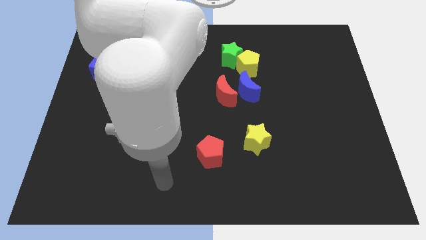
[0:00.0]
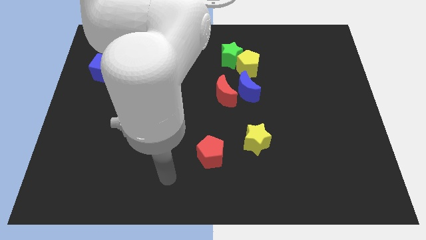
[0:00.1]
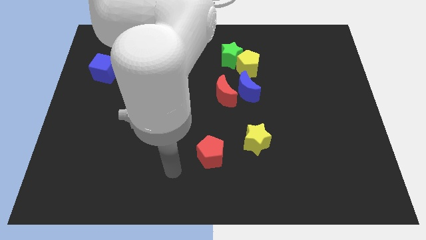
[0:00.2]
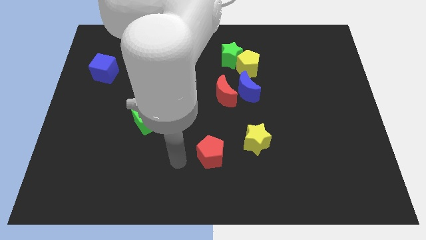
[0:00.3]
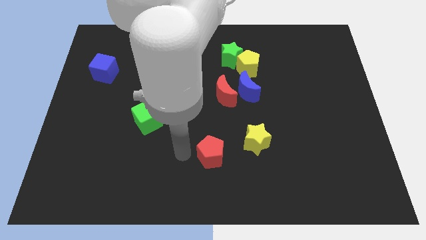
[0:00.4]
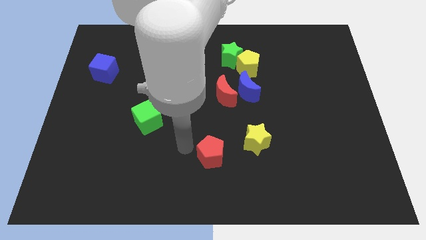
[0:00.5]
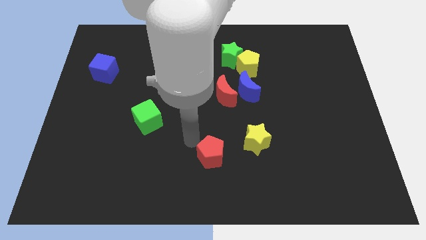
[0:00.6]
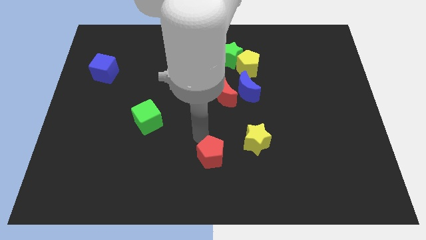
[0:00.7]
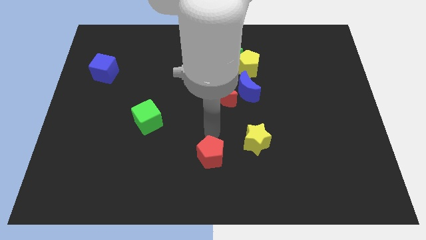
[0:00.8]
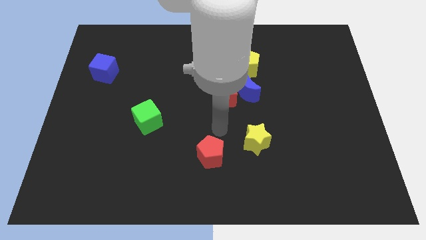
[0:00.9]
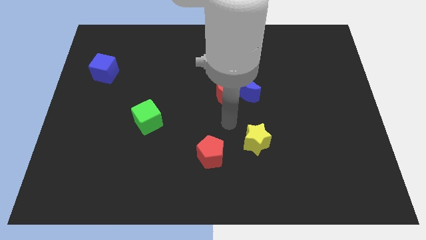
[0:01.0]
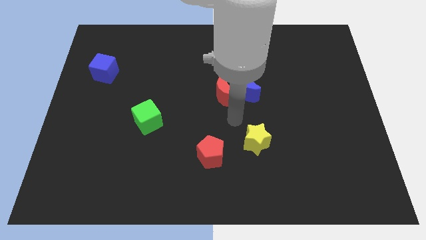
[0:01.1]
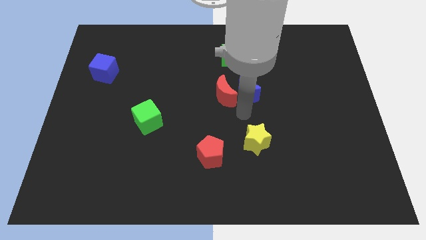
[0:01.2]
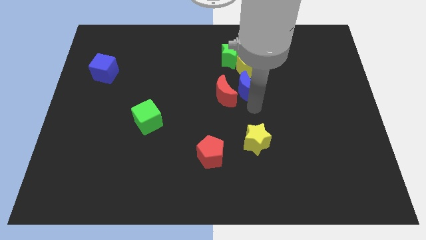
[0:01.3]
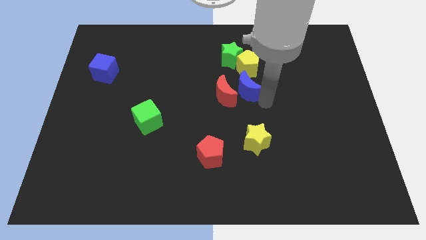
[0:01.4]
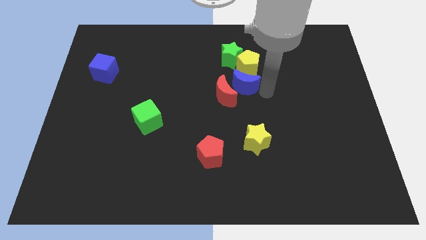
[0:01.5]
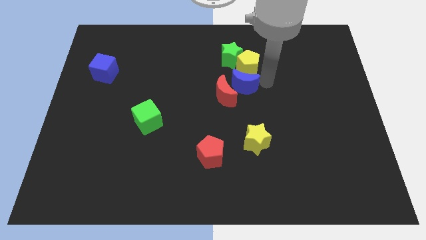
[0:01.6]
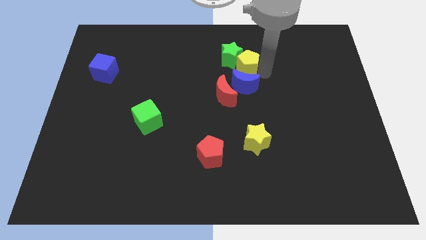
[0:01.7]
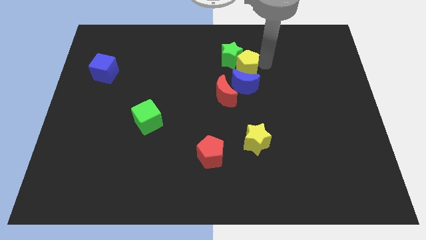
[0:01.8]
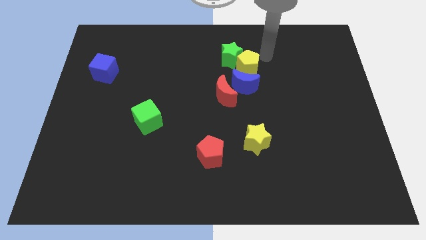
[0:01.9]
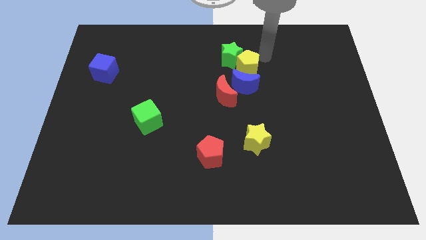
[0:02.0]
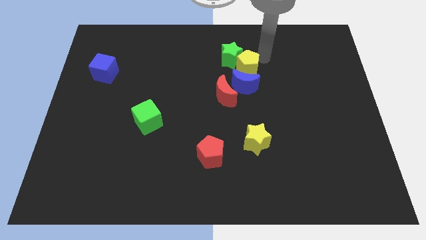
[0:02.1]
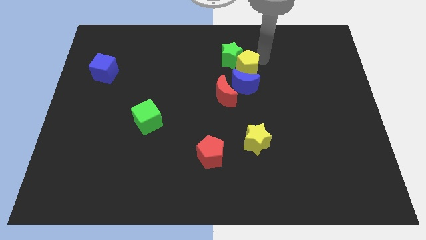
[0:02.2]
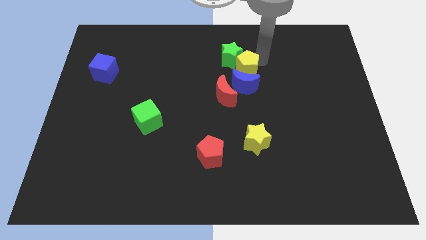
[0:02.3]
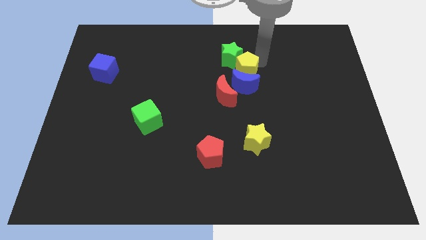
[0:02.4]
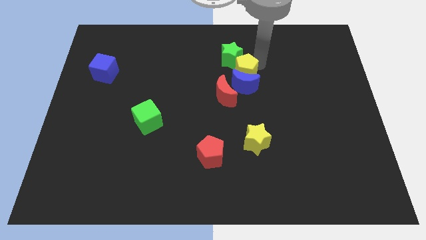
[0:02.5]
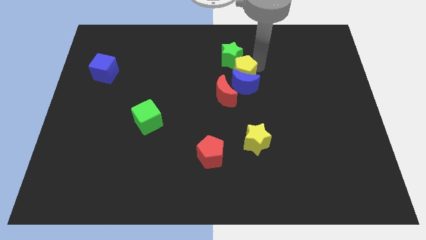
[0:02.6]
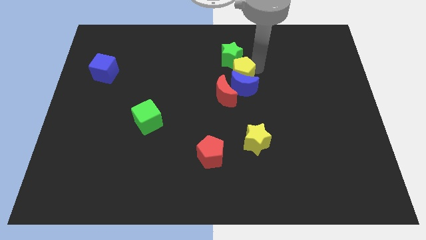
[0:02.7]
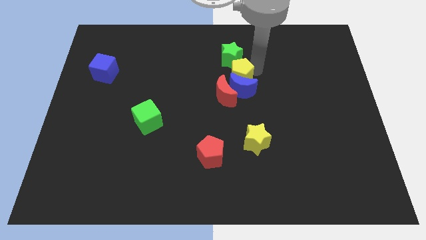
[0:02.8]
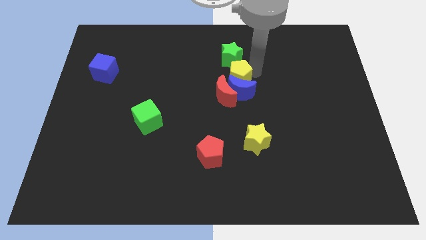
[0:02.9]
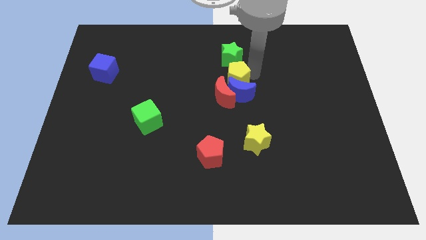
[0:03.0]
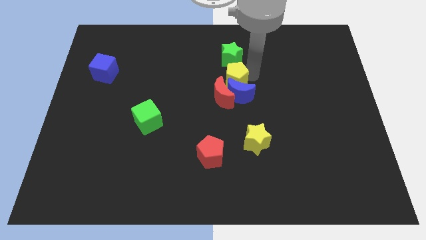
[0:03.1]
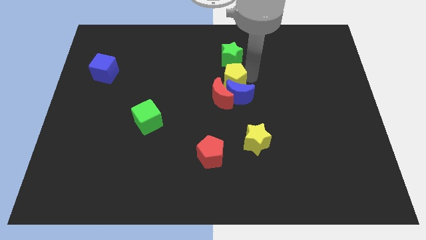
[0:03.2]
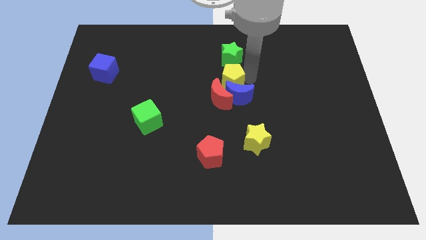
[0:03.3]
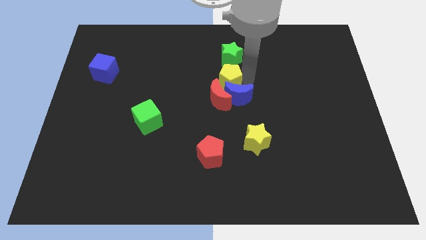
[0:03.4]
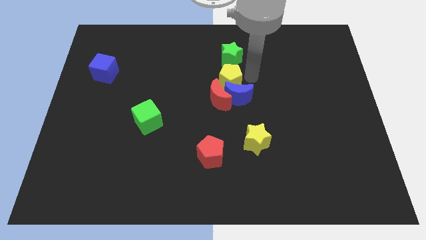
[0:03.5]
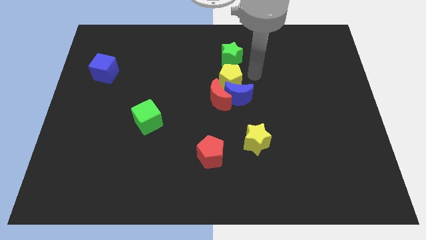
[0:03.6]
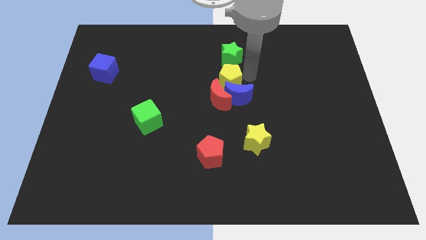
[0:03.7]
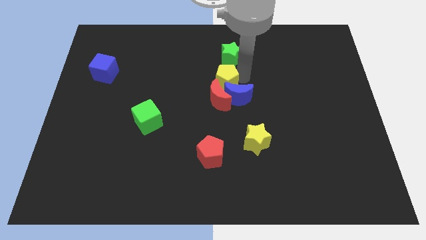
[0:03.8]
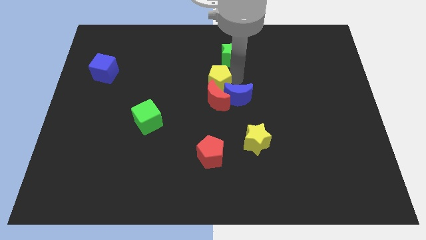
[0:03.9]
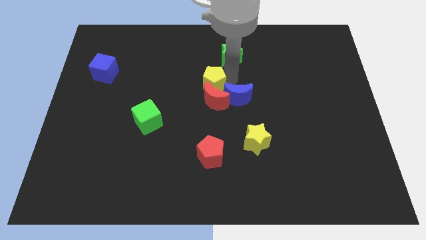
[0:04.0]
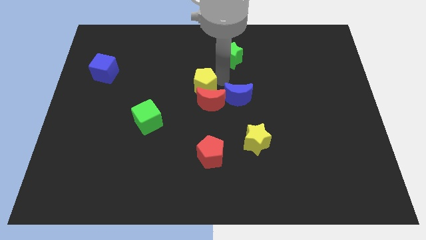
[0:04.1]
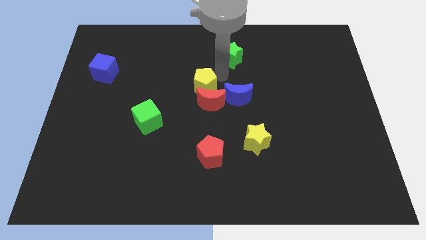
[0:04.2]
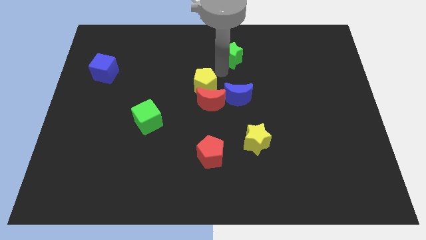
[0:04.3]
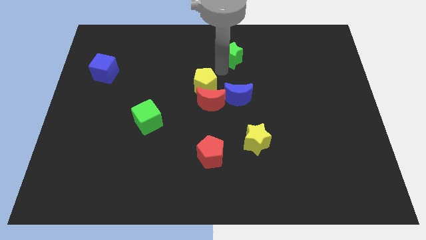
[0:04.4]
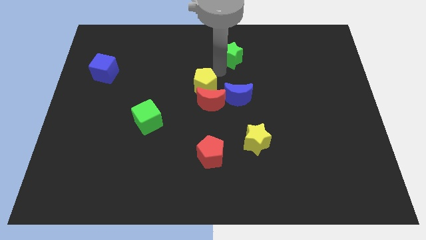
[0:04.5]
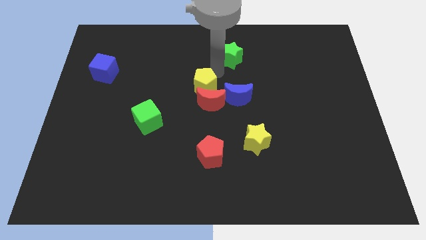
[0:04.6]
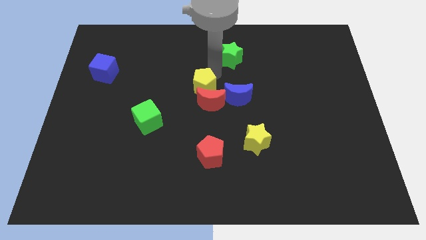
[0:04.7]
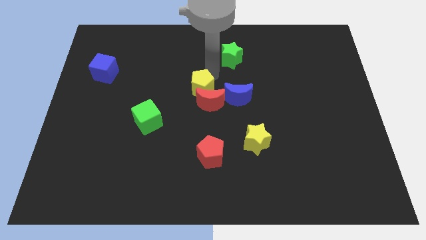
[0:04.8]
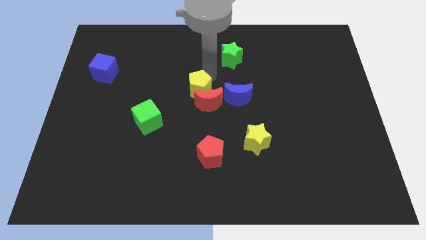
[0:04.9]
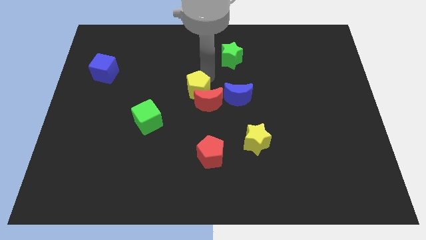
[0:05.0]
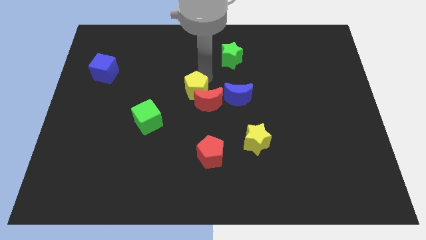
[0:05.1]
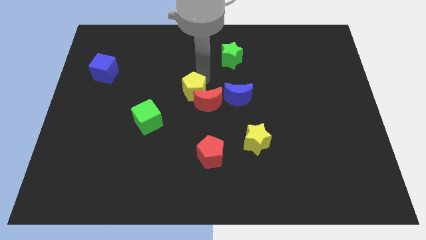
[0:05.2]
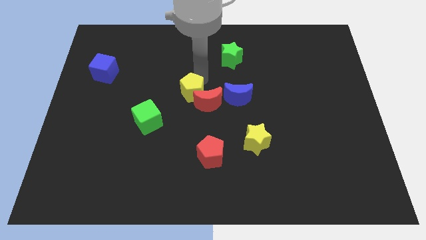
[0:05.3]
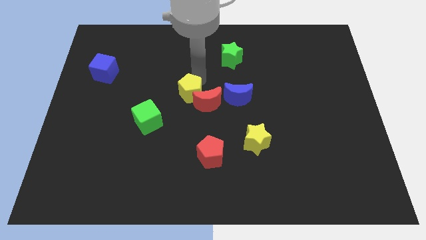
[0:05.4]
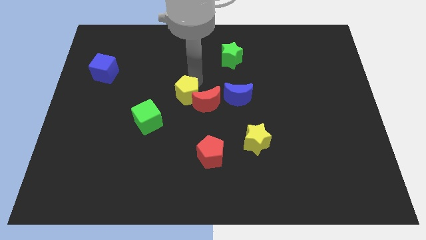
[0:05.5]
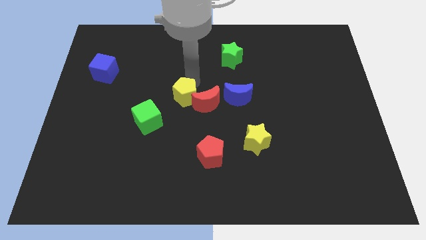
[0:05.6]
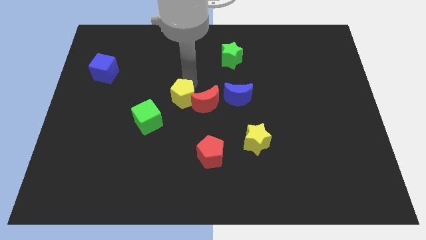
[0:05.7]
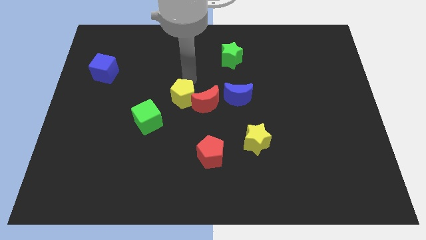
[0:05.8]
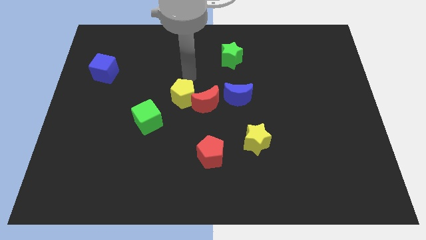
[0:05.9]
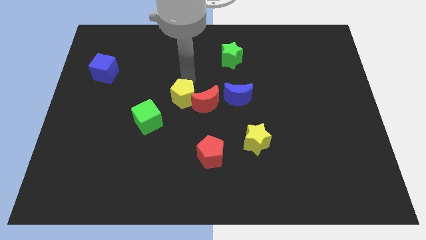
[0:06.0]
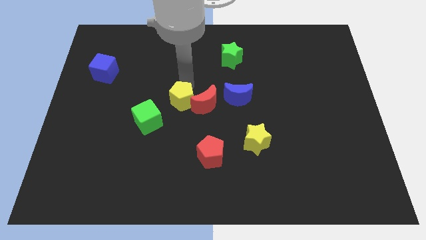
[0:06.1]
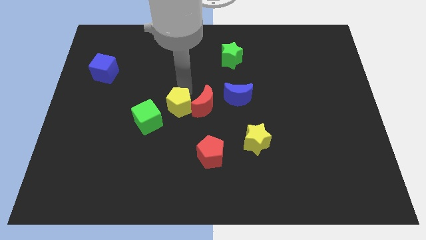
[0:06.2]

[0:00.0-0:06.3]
slide the yellow pentagon downwards and left

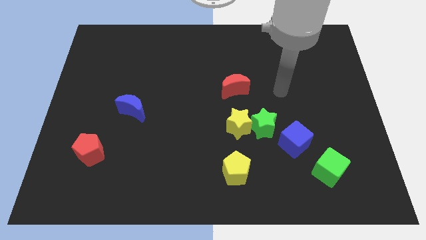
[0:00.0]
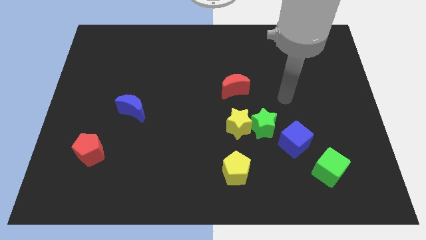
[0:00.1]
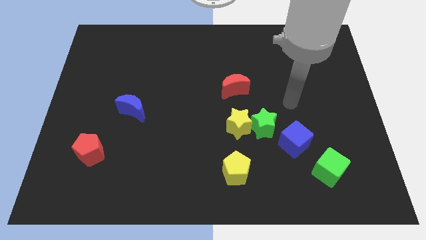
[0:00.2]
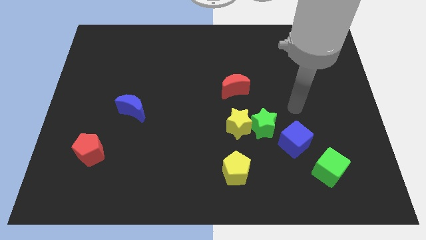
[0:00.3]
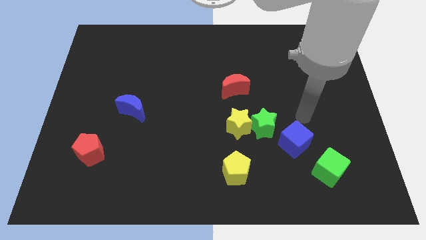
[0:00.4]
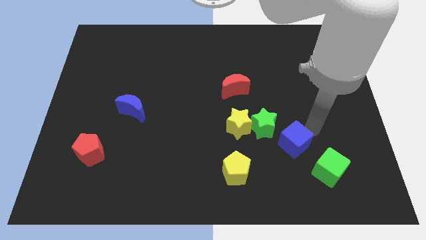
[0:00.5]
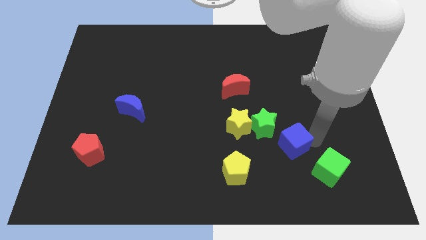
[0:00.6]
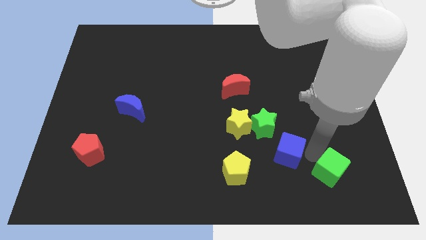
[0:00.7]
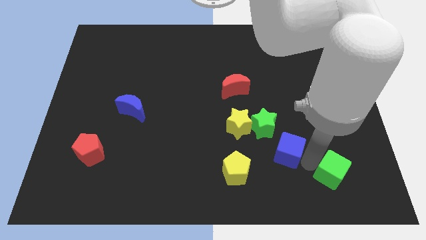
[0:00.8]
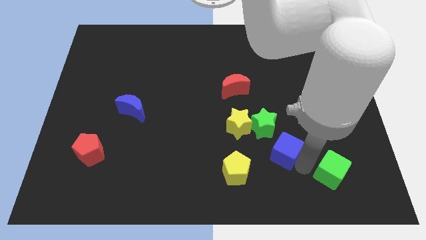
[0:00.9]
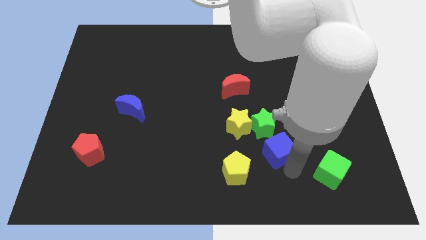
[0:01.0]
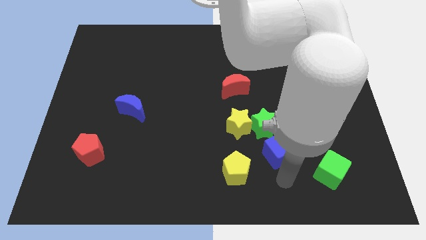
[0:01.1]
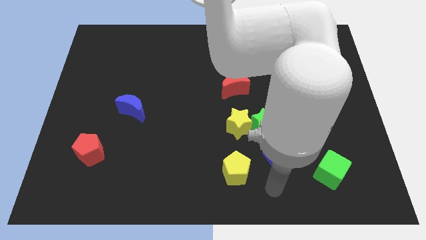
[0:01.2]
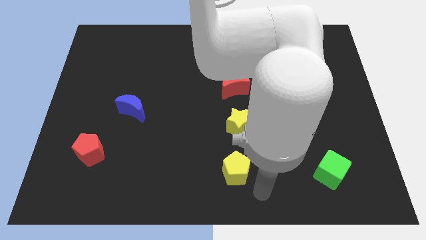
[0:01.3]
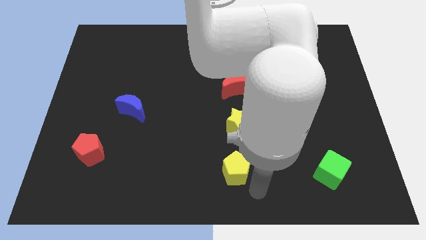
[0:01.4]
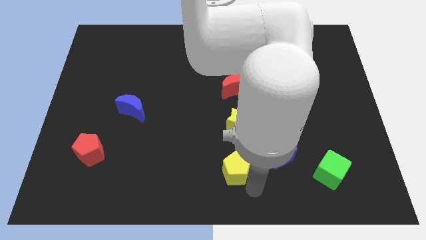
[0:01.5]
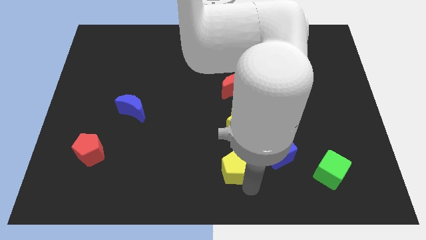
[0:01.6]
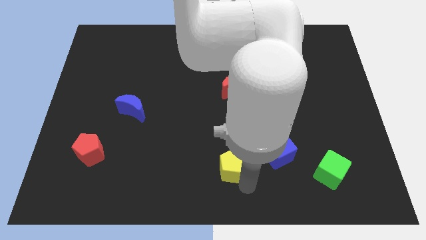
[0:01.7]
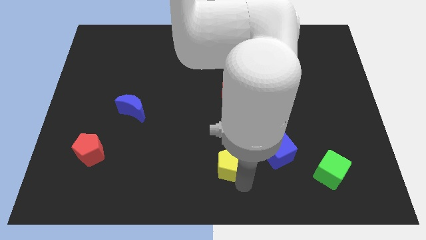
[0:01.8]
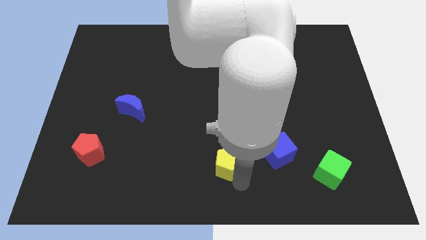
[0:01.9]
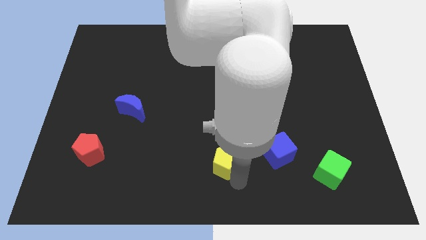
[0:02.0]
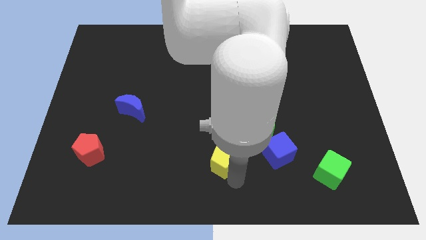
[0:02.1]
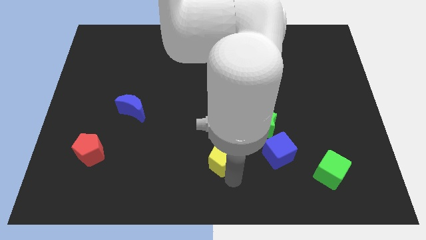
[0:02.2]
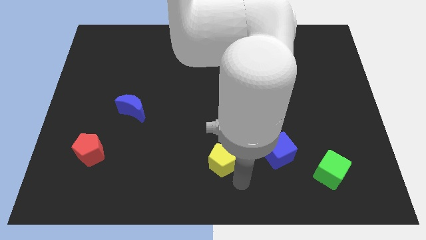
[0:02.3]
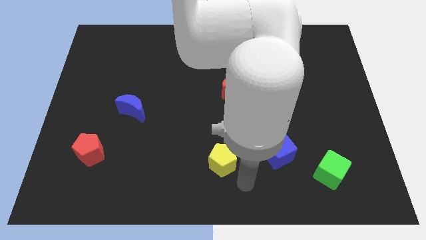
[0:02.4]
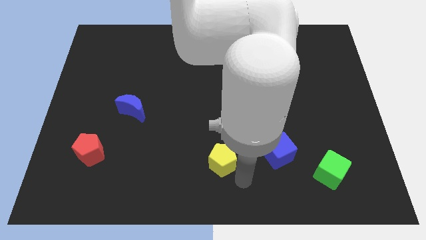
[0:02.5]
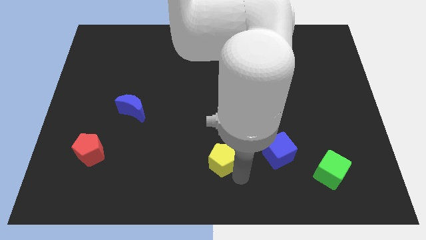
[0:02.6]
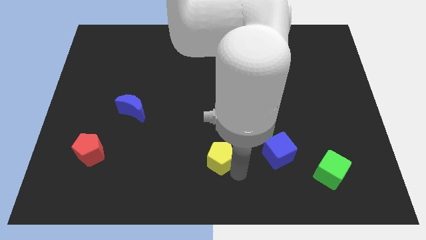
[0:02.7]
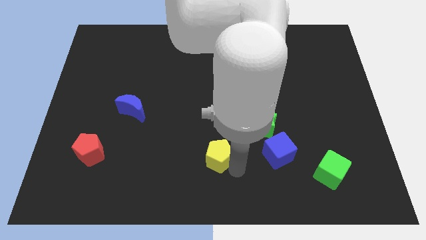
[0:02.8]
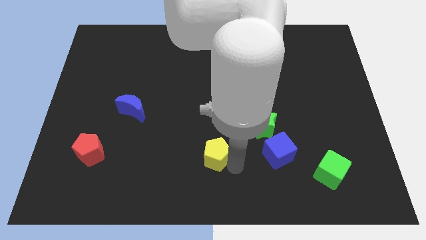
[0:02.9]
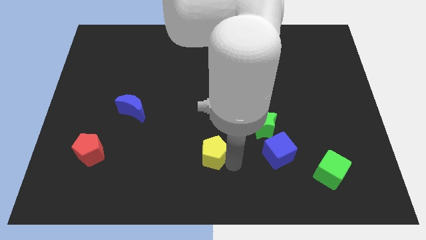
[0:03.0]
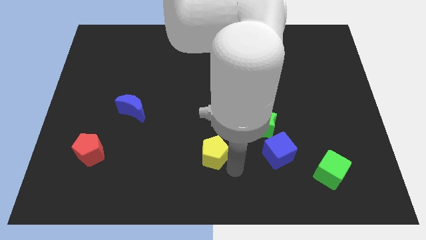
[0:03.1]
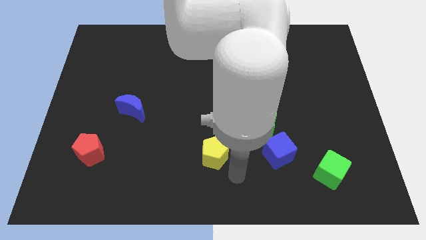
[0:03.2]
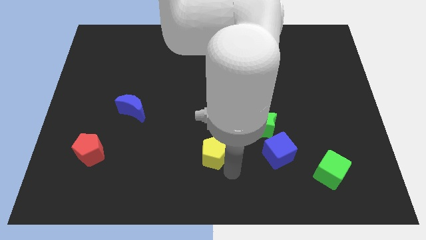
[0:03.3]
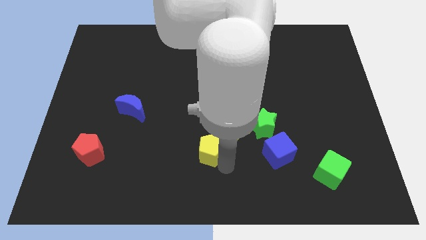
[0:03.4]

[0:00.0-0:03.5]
slightly move the yellow pentagon upwards and to the left
